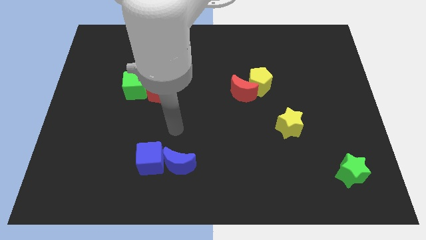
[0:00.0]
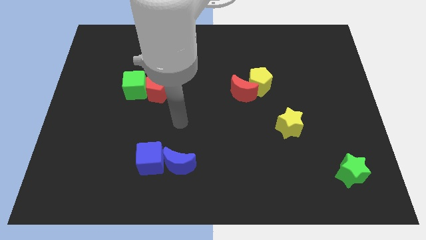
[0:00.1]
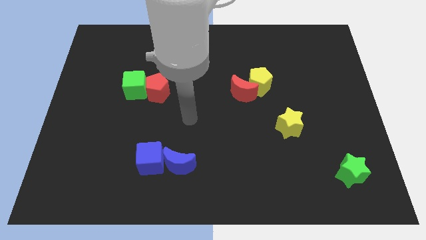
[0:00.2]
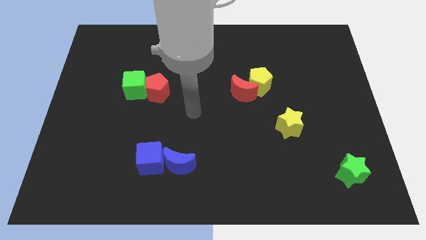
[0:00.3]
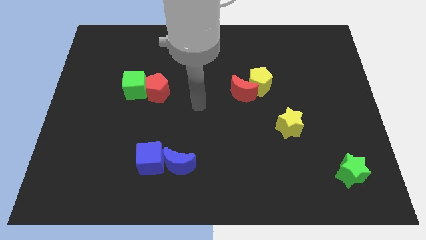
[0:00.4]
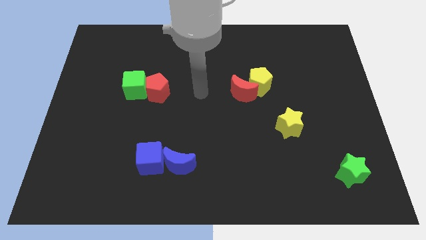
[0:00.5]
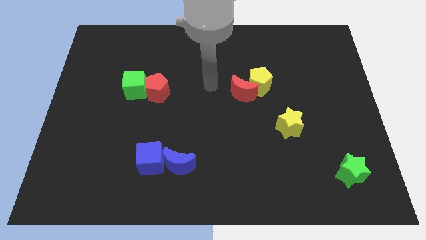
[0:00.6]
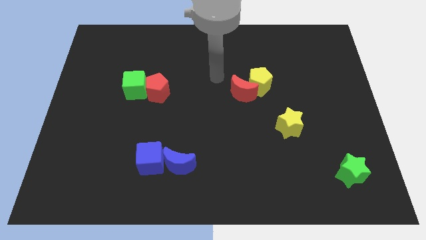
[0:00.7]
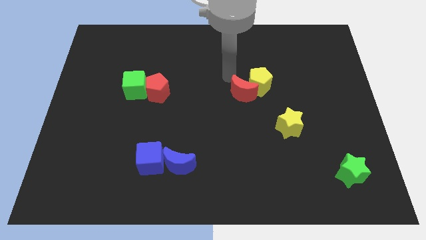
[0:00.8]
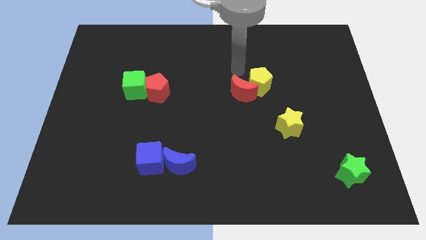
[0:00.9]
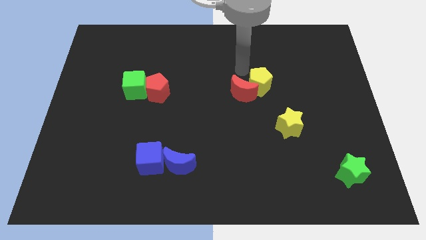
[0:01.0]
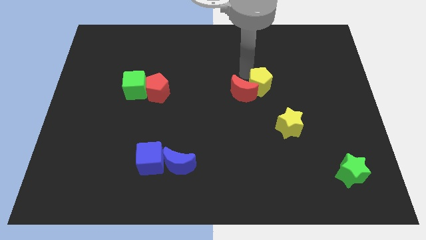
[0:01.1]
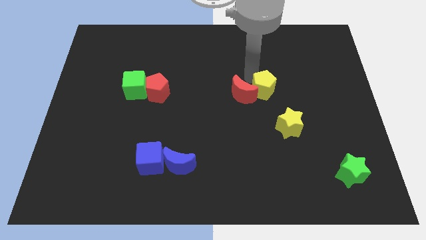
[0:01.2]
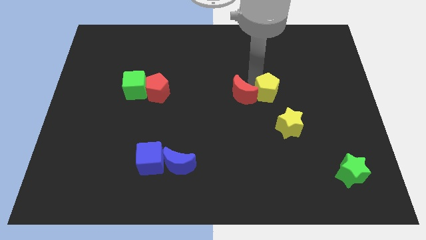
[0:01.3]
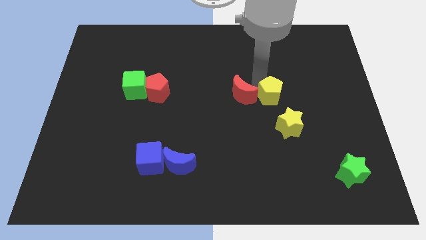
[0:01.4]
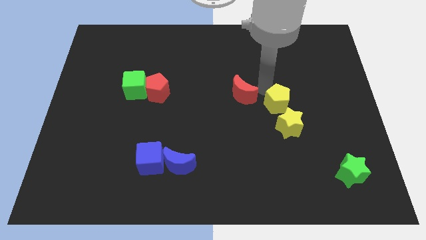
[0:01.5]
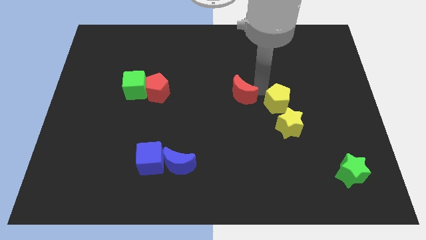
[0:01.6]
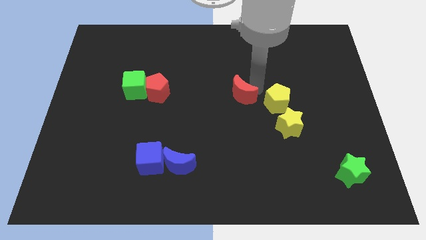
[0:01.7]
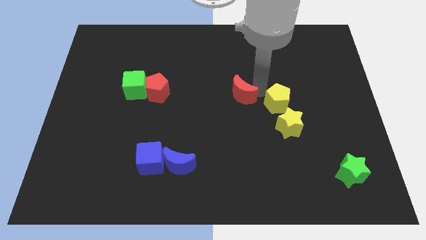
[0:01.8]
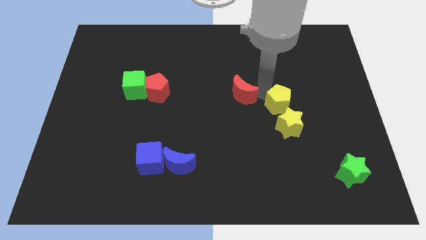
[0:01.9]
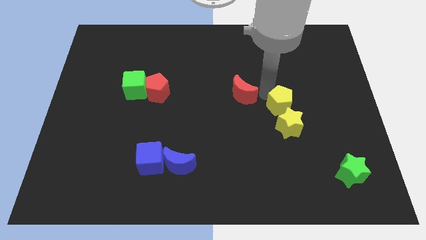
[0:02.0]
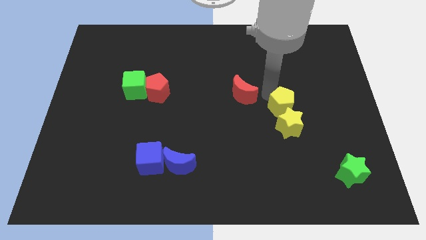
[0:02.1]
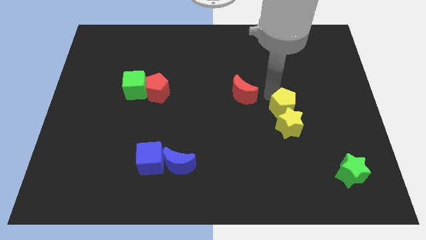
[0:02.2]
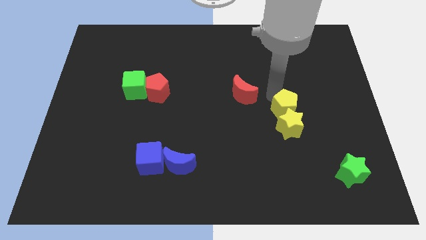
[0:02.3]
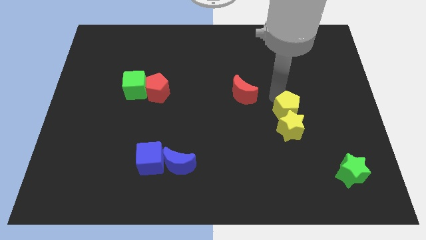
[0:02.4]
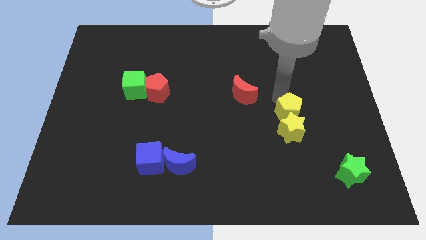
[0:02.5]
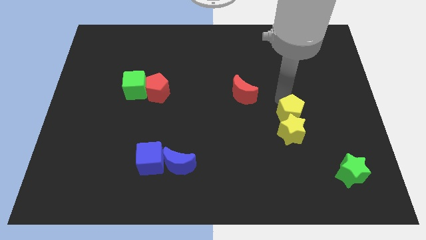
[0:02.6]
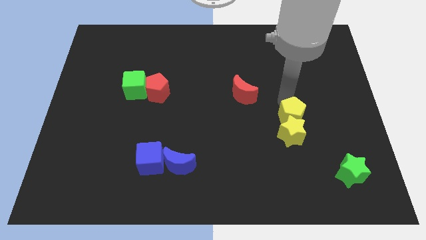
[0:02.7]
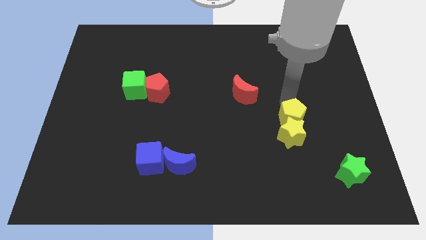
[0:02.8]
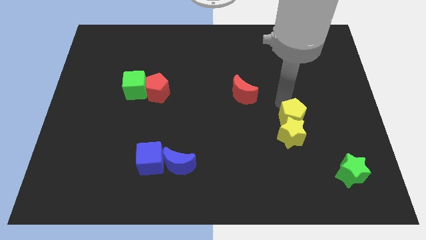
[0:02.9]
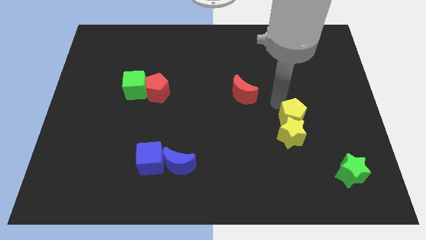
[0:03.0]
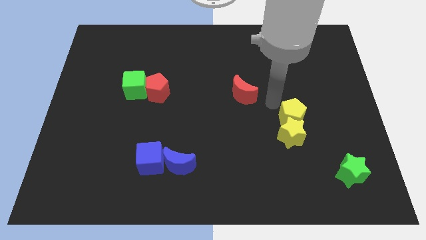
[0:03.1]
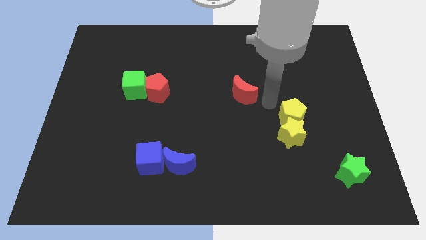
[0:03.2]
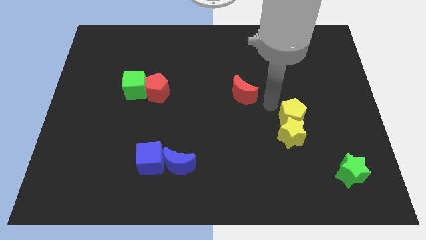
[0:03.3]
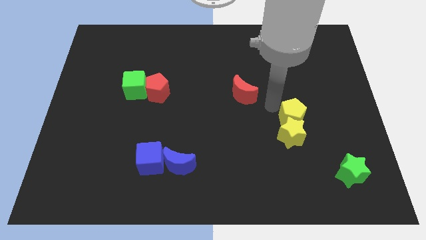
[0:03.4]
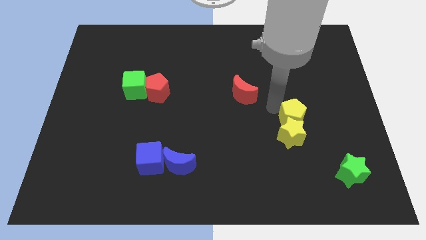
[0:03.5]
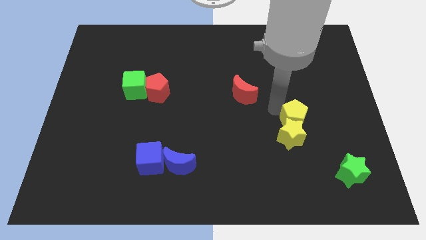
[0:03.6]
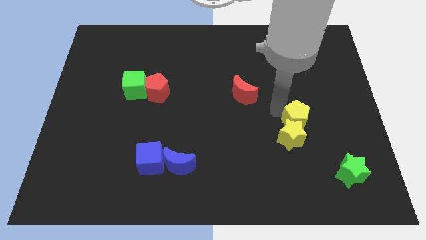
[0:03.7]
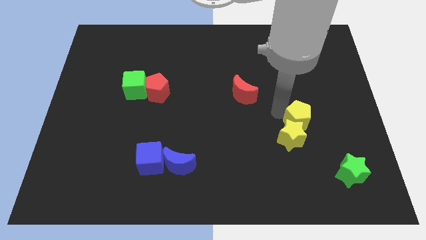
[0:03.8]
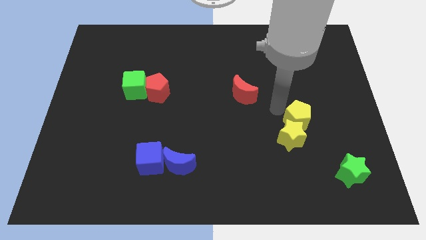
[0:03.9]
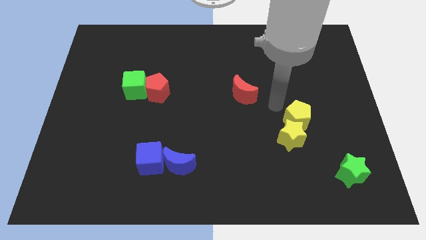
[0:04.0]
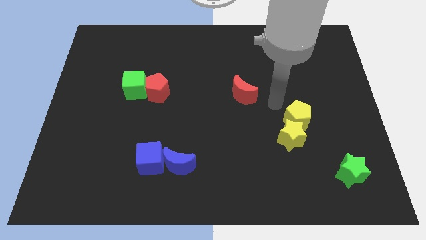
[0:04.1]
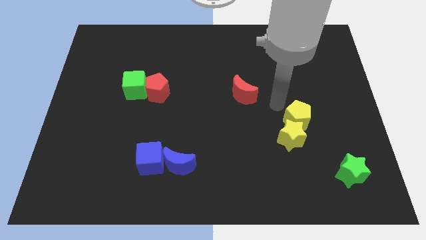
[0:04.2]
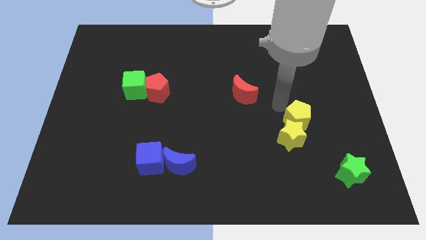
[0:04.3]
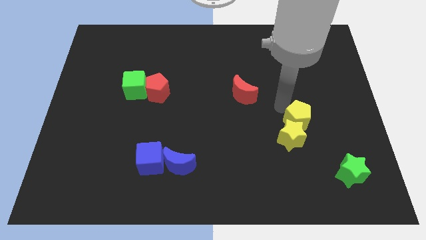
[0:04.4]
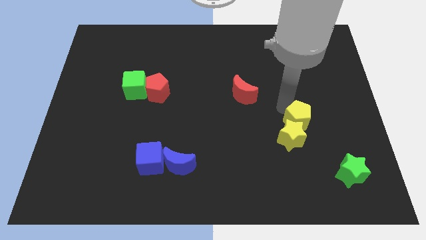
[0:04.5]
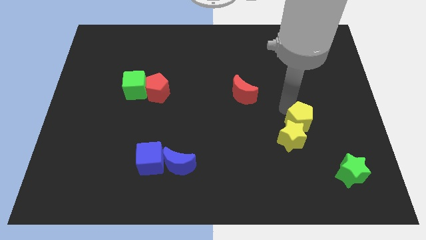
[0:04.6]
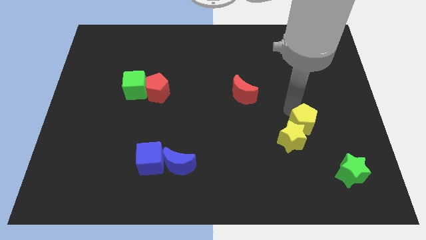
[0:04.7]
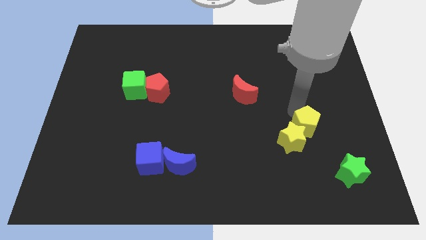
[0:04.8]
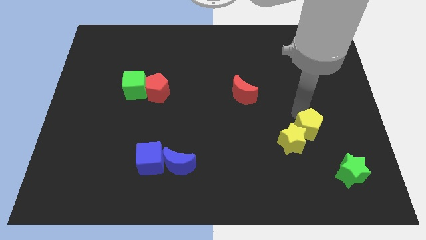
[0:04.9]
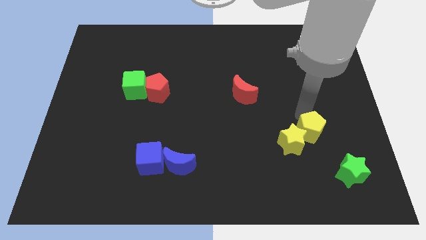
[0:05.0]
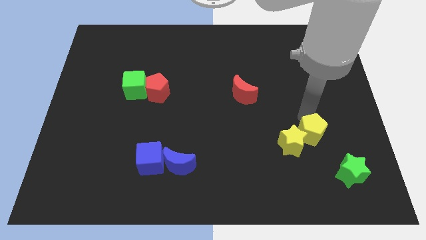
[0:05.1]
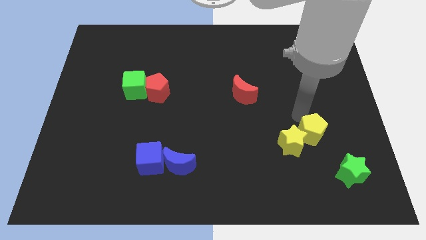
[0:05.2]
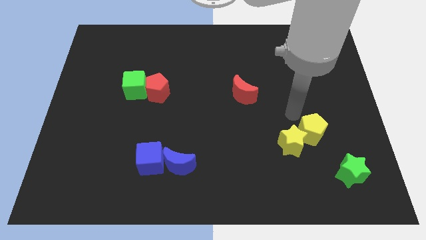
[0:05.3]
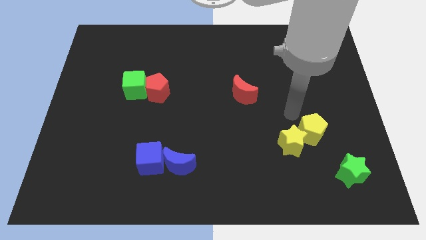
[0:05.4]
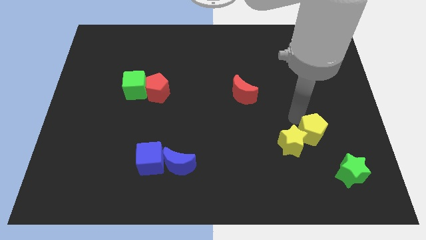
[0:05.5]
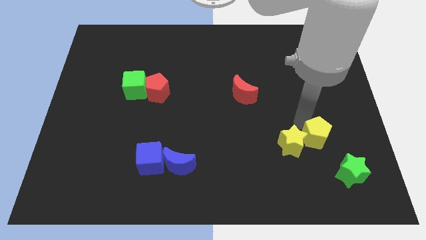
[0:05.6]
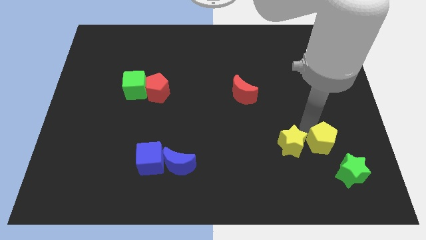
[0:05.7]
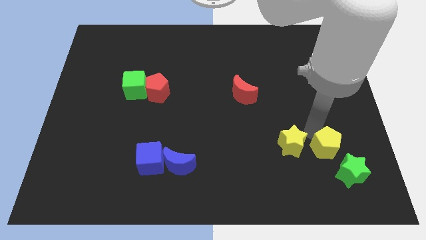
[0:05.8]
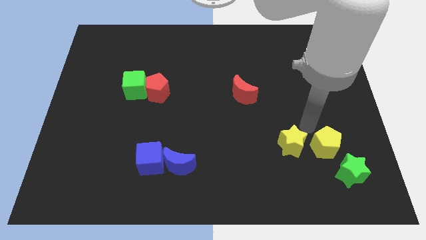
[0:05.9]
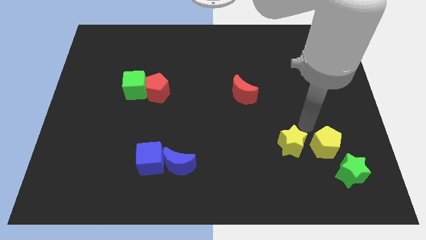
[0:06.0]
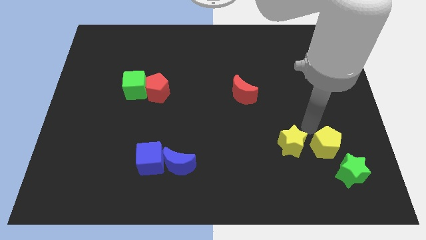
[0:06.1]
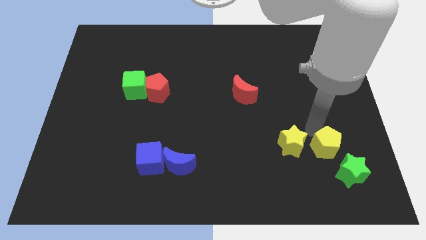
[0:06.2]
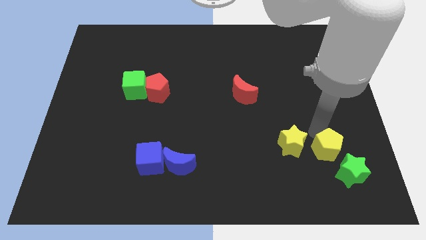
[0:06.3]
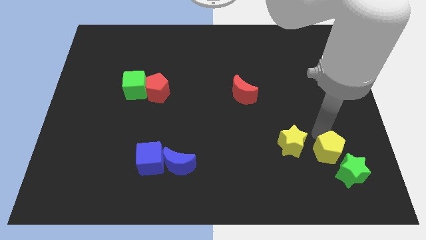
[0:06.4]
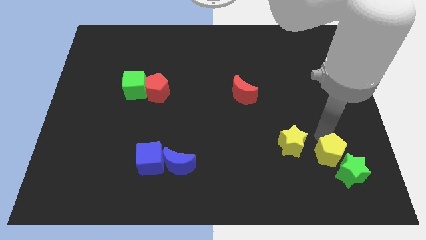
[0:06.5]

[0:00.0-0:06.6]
move the yellow pentagon close to the green star
